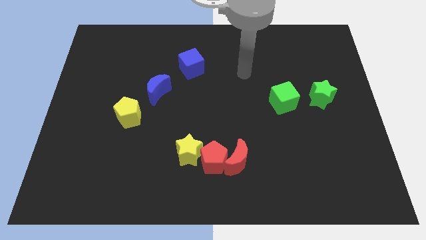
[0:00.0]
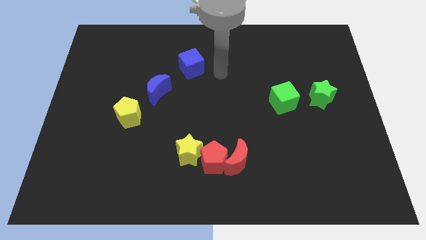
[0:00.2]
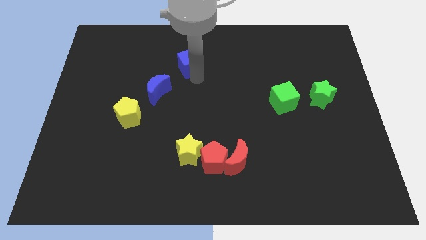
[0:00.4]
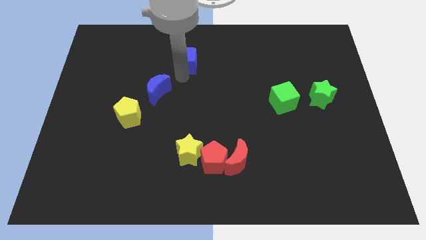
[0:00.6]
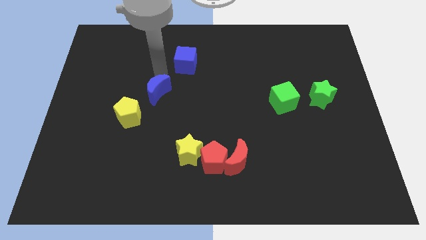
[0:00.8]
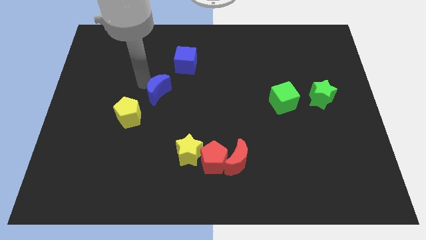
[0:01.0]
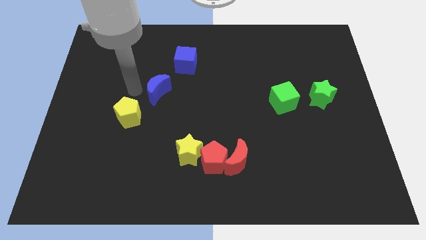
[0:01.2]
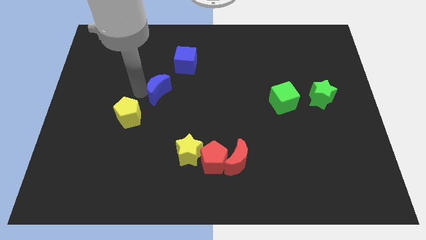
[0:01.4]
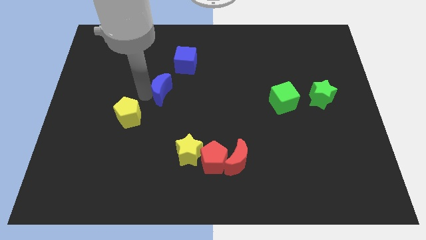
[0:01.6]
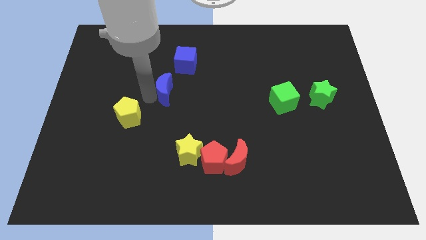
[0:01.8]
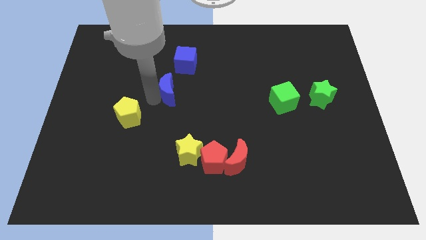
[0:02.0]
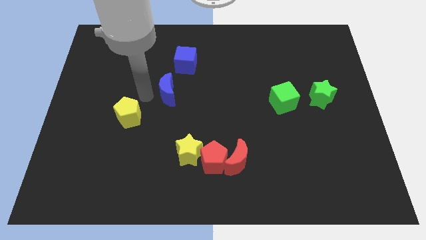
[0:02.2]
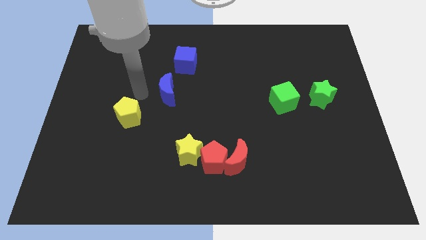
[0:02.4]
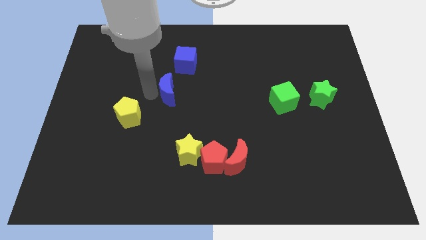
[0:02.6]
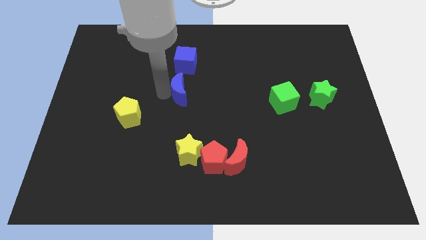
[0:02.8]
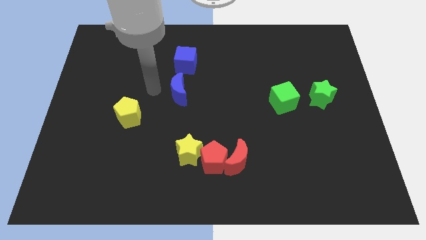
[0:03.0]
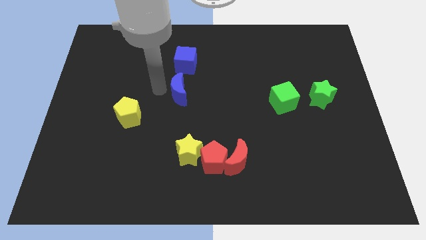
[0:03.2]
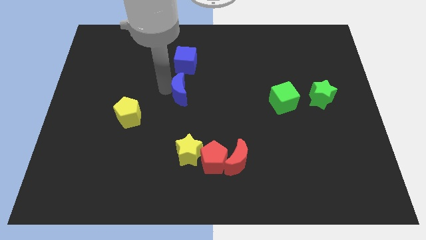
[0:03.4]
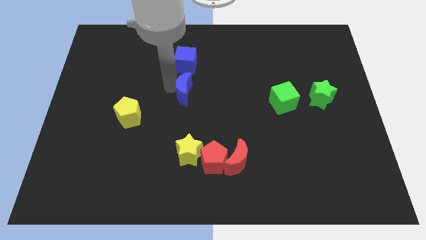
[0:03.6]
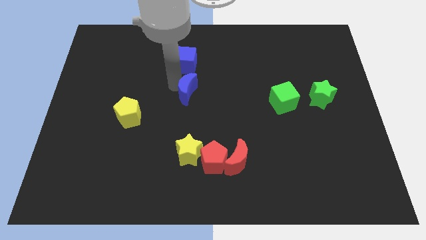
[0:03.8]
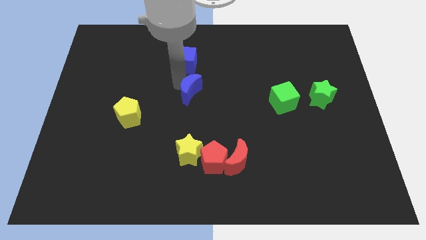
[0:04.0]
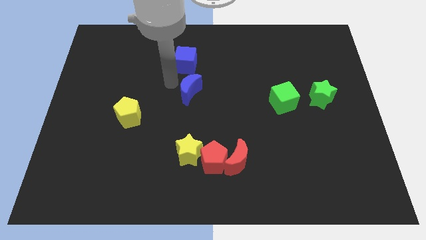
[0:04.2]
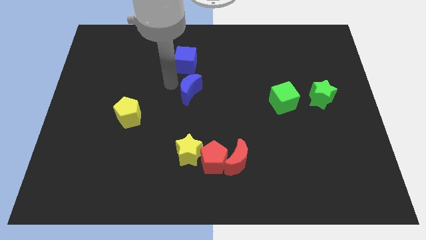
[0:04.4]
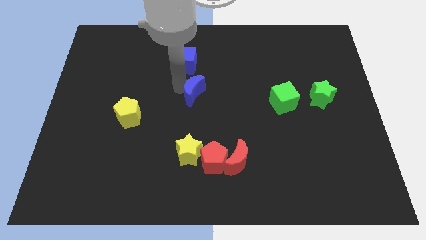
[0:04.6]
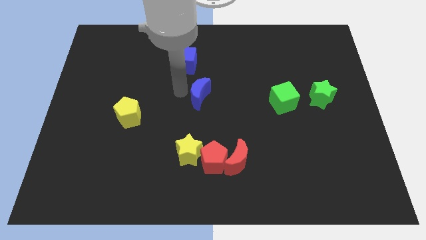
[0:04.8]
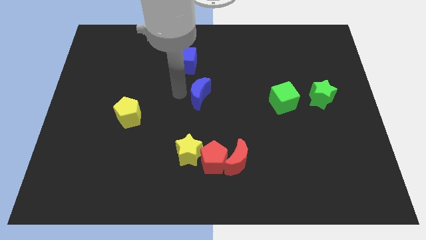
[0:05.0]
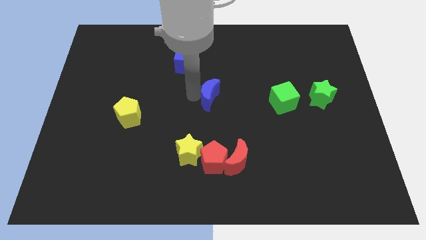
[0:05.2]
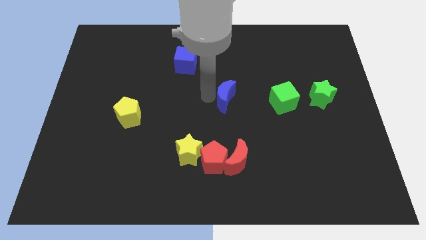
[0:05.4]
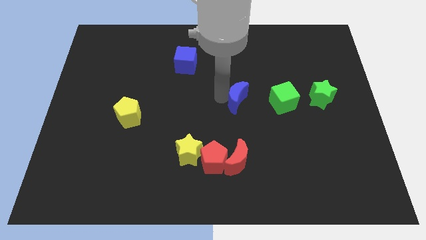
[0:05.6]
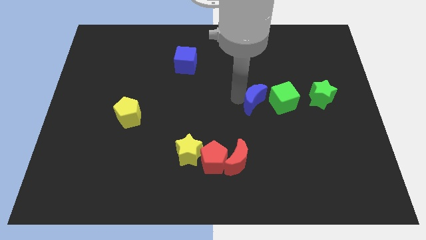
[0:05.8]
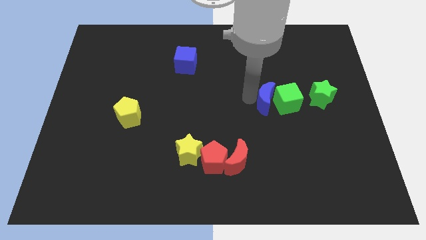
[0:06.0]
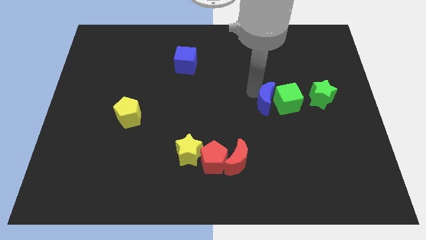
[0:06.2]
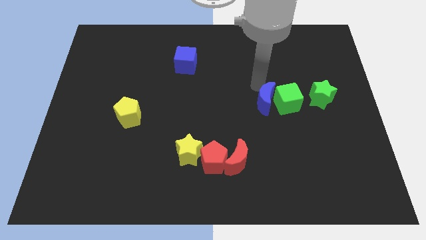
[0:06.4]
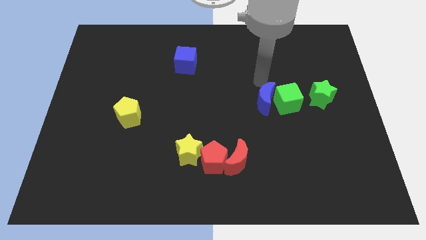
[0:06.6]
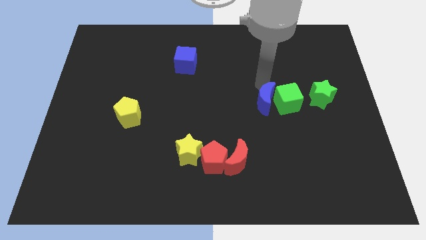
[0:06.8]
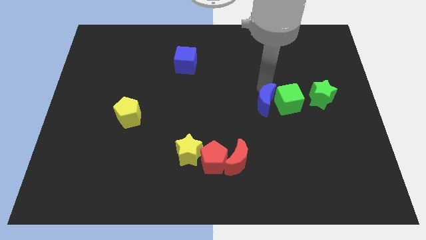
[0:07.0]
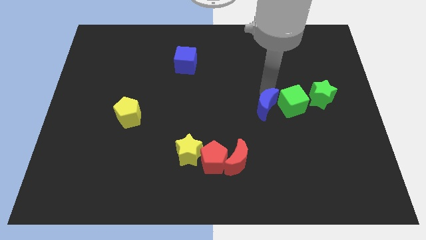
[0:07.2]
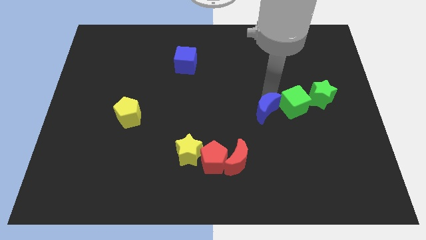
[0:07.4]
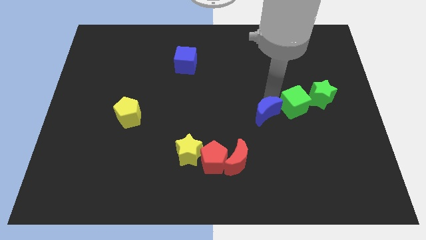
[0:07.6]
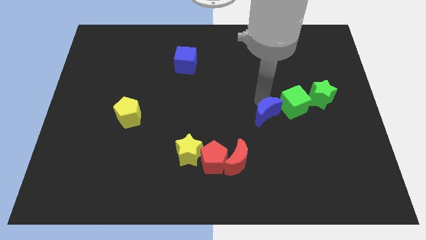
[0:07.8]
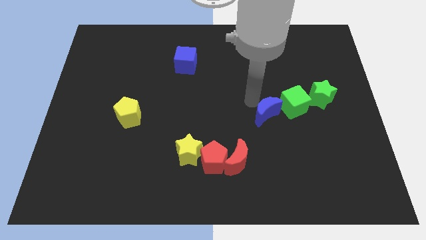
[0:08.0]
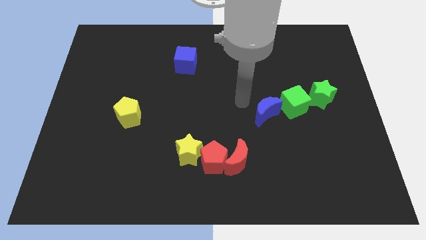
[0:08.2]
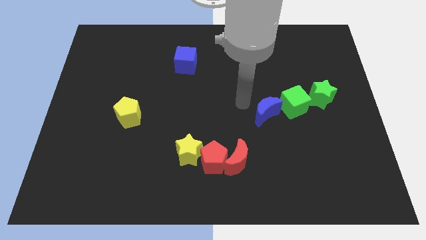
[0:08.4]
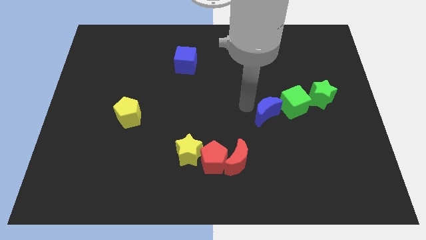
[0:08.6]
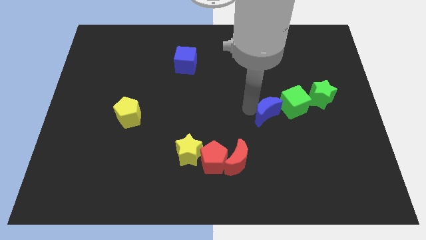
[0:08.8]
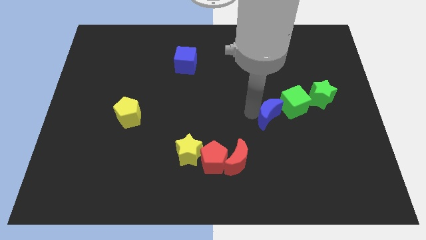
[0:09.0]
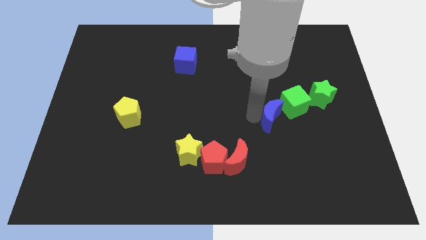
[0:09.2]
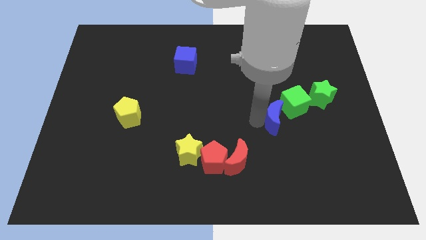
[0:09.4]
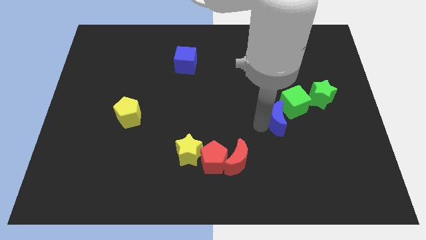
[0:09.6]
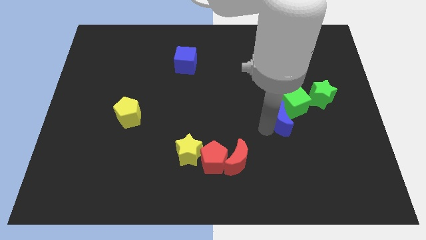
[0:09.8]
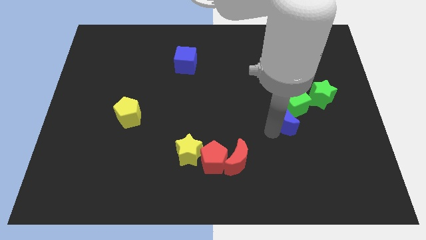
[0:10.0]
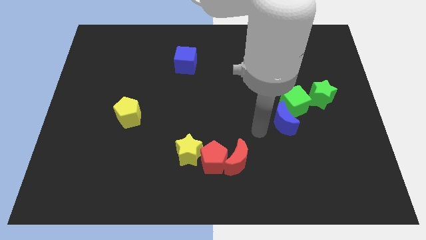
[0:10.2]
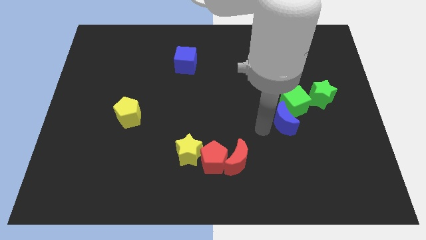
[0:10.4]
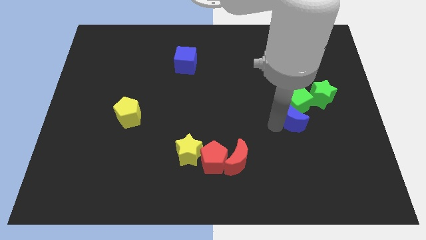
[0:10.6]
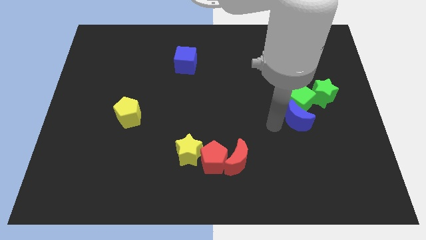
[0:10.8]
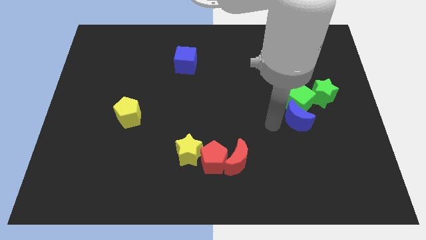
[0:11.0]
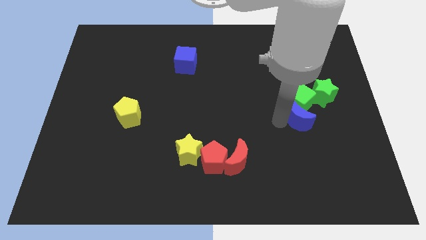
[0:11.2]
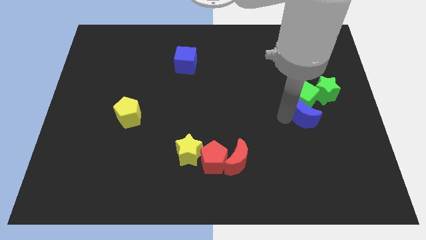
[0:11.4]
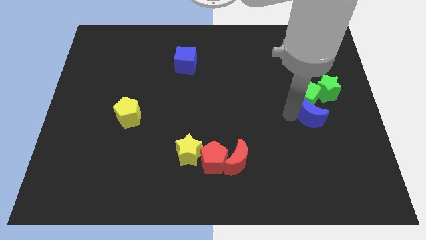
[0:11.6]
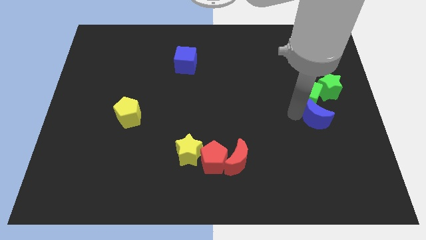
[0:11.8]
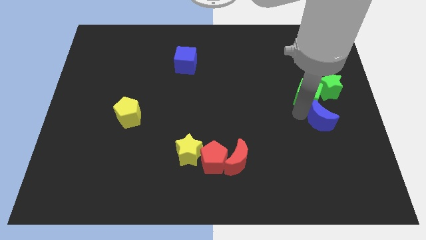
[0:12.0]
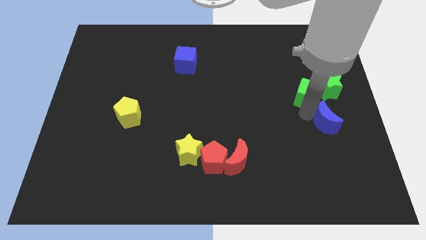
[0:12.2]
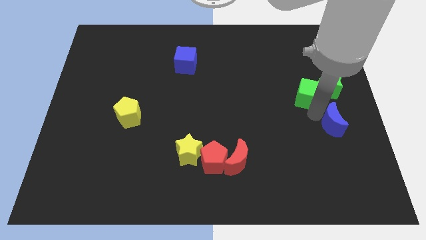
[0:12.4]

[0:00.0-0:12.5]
slide the blue moon to the right side of the board
